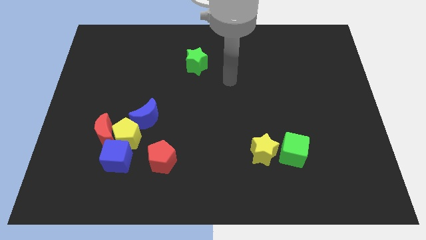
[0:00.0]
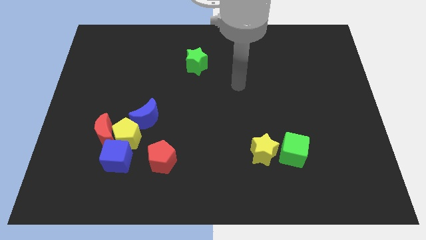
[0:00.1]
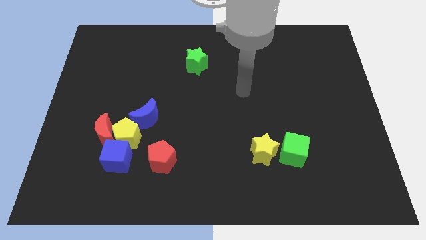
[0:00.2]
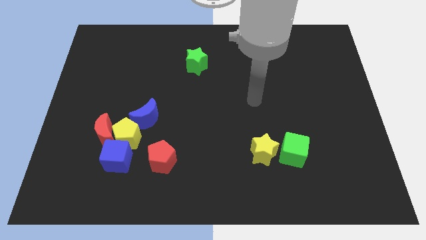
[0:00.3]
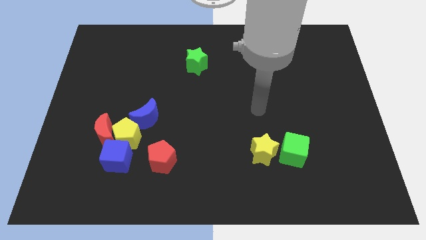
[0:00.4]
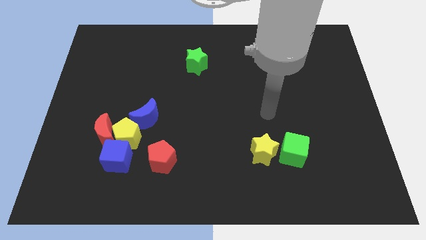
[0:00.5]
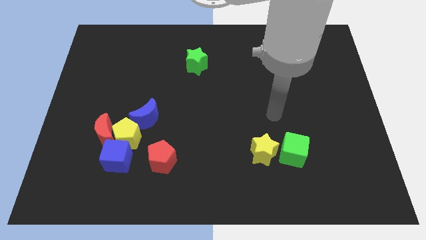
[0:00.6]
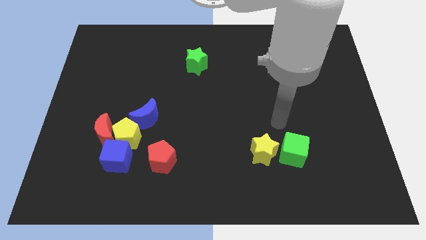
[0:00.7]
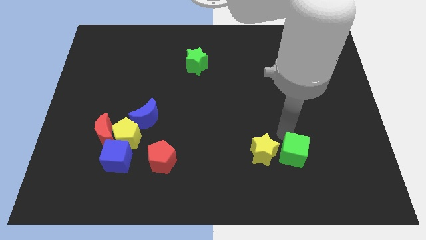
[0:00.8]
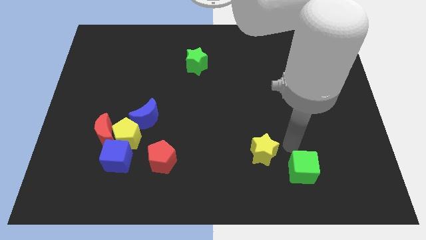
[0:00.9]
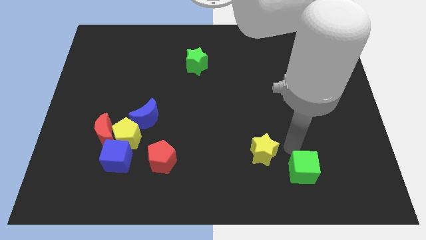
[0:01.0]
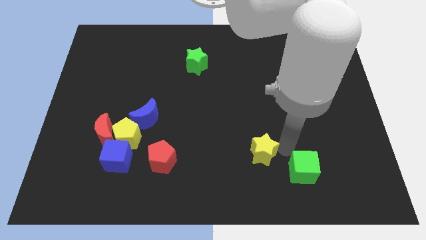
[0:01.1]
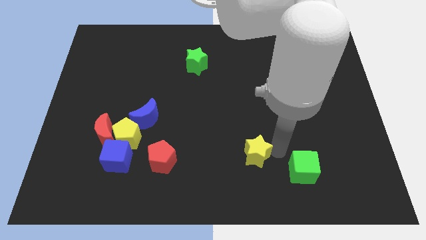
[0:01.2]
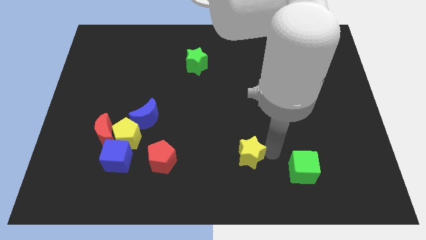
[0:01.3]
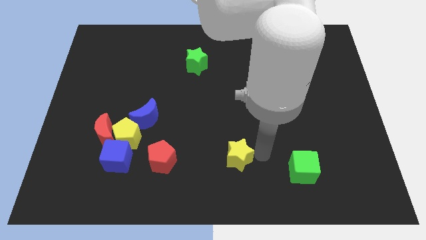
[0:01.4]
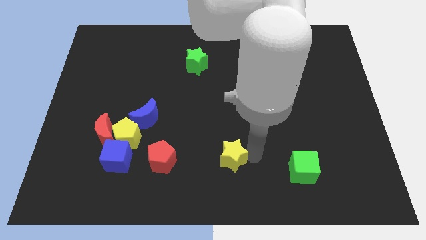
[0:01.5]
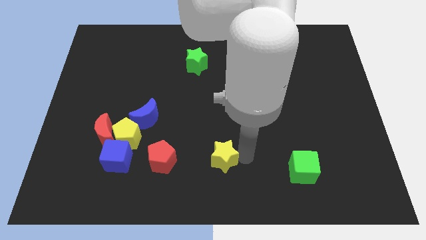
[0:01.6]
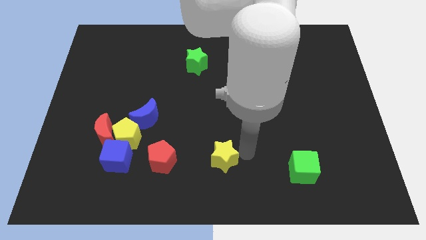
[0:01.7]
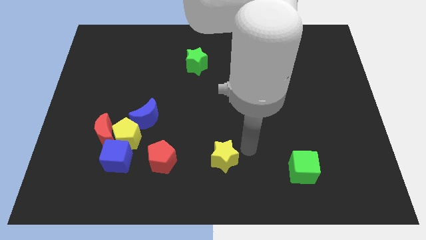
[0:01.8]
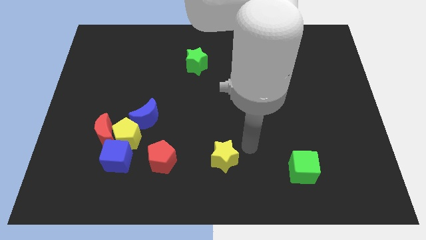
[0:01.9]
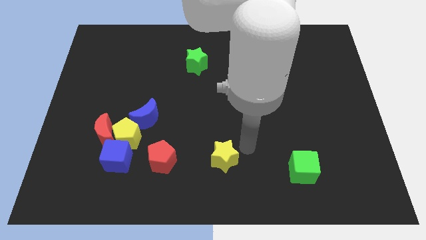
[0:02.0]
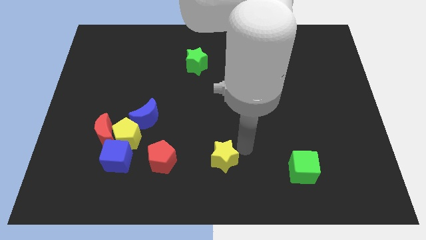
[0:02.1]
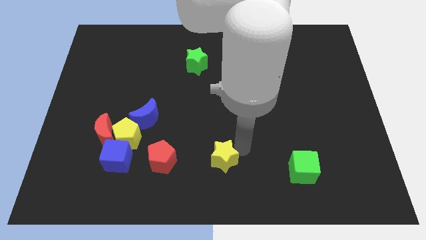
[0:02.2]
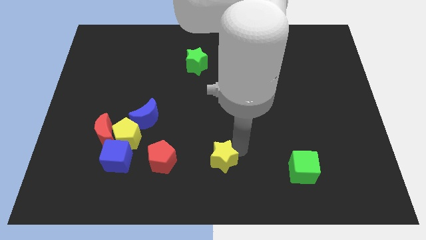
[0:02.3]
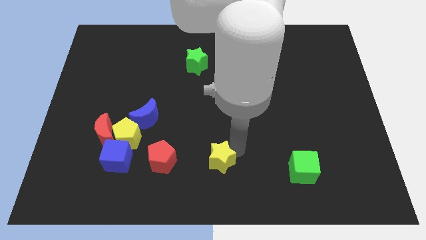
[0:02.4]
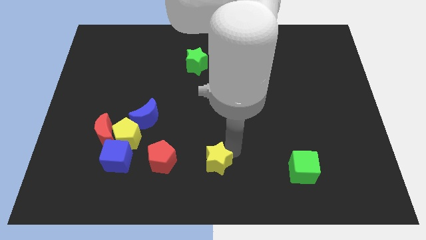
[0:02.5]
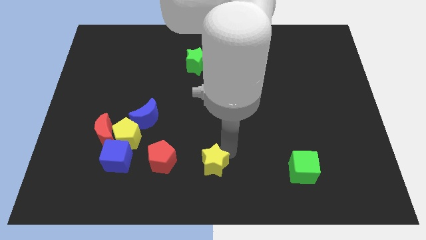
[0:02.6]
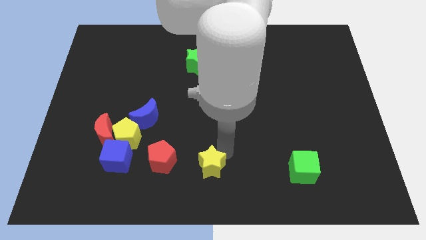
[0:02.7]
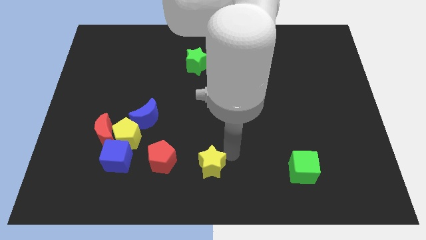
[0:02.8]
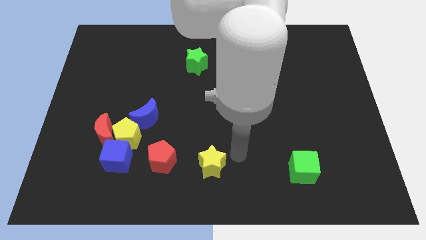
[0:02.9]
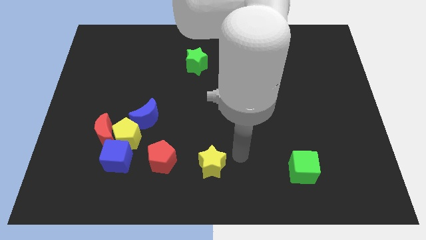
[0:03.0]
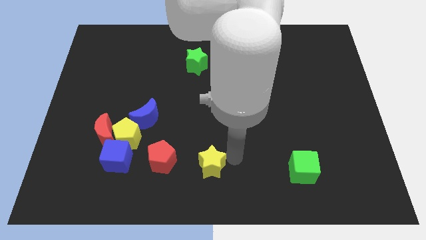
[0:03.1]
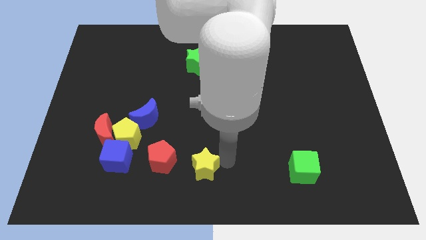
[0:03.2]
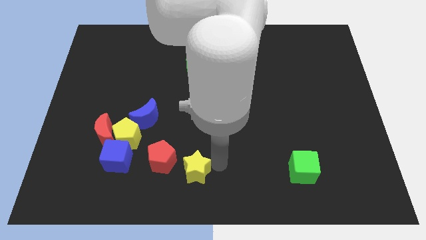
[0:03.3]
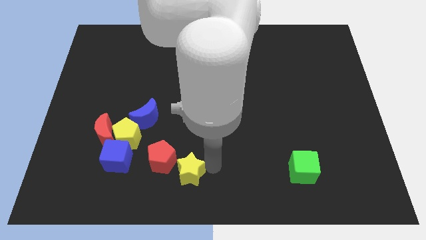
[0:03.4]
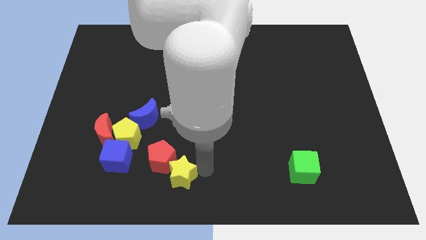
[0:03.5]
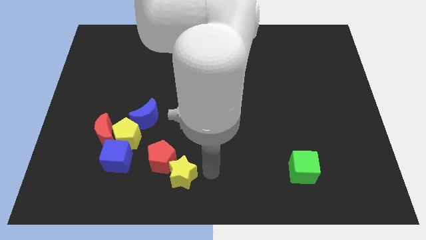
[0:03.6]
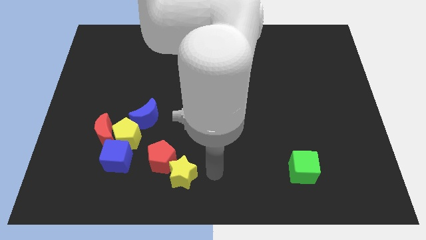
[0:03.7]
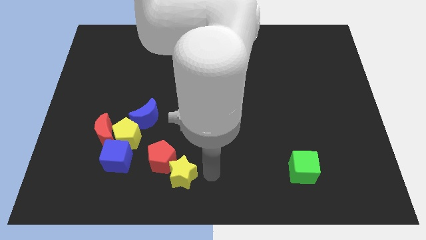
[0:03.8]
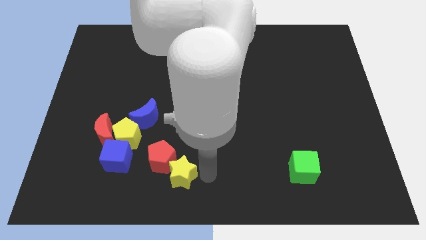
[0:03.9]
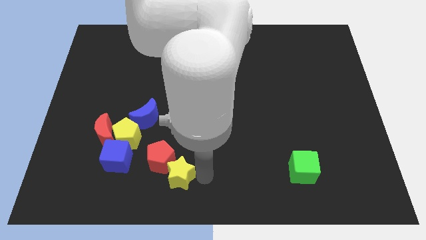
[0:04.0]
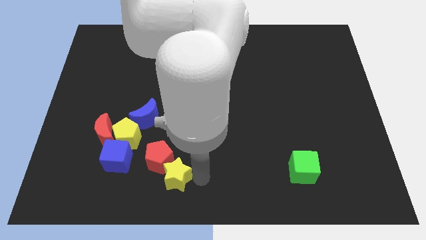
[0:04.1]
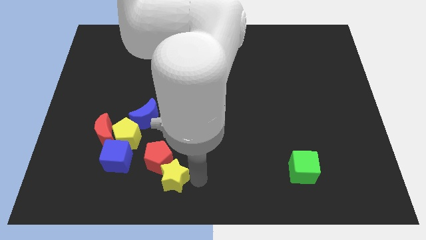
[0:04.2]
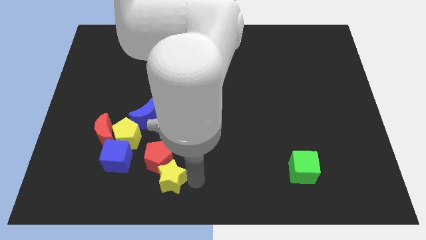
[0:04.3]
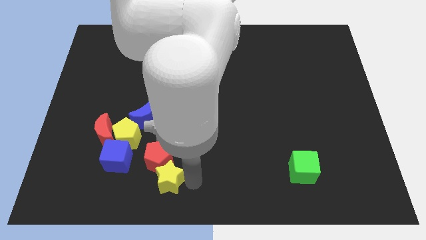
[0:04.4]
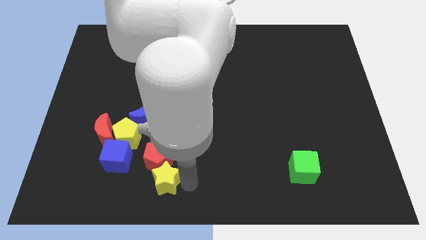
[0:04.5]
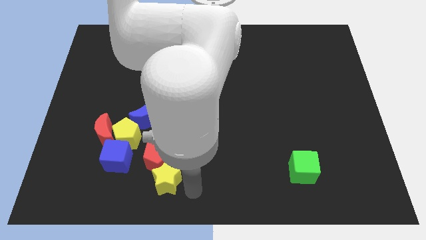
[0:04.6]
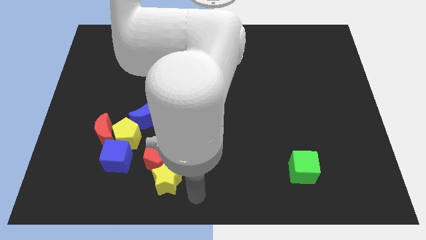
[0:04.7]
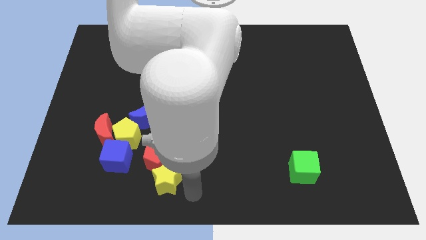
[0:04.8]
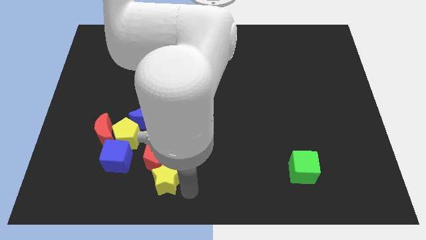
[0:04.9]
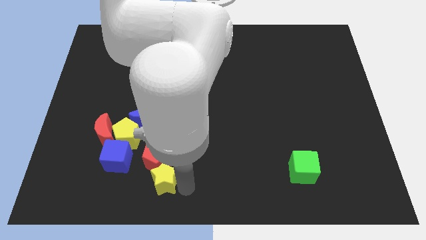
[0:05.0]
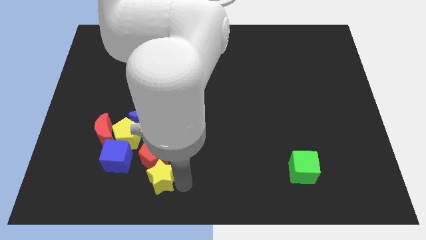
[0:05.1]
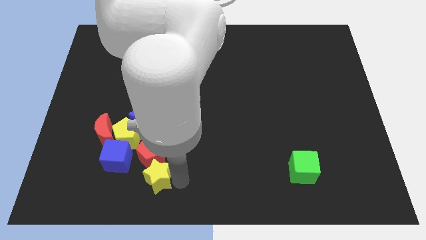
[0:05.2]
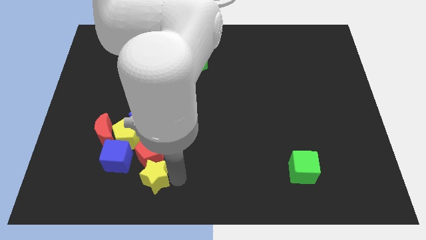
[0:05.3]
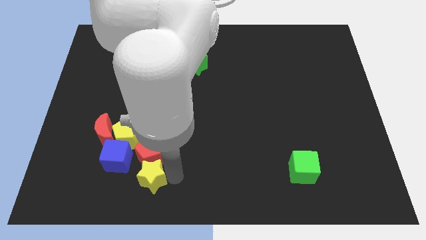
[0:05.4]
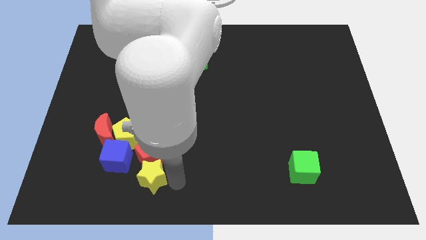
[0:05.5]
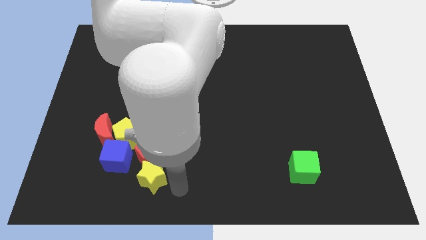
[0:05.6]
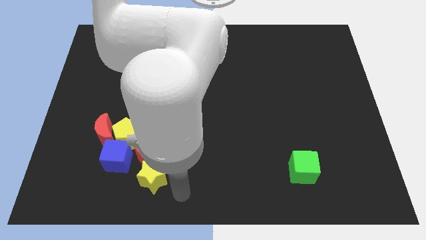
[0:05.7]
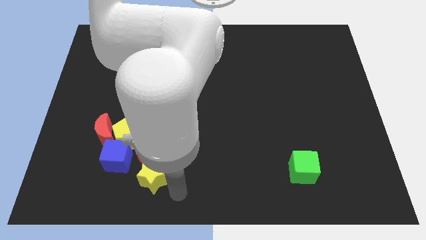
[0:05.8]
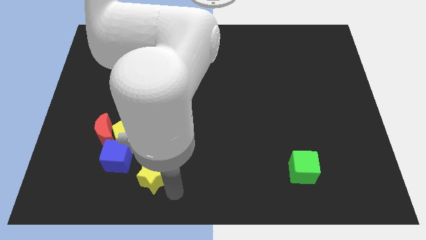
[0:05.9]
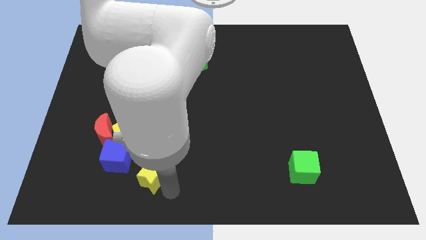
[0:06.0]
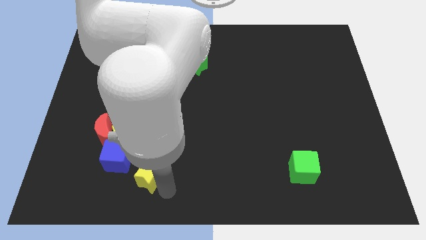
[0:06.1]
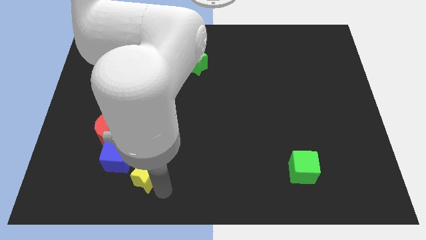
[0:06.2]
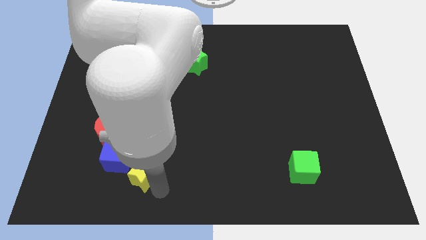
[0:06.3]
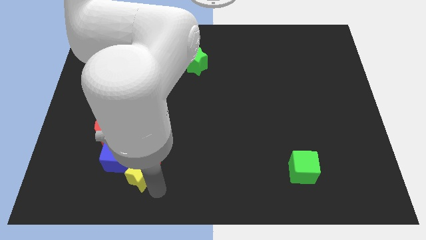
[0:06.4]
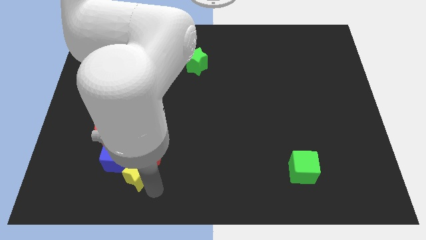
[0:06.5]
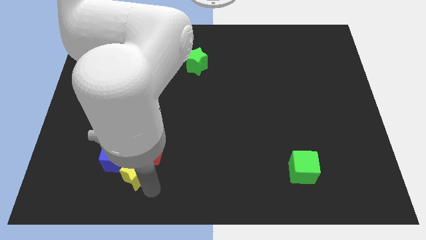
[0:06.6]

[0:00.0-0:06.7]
push the yellow star towards the blue cube

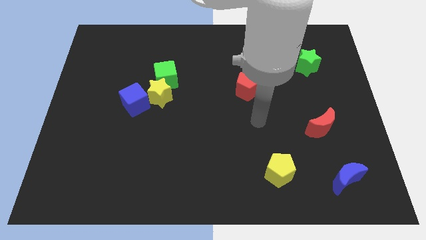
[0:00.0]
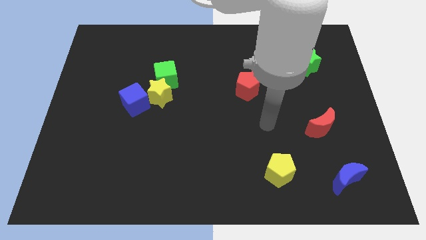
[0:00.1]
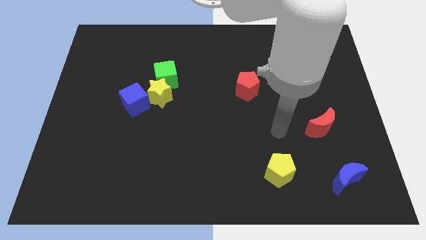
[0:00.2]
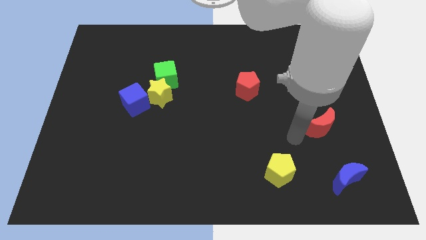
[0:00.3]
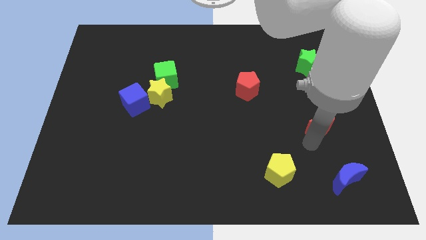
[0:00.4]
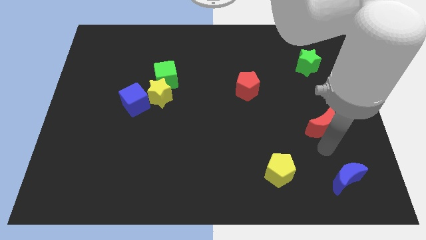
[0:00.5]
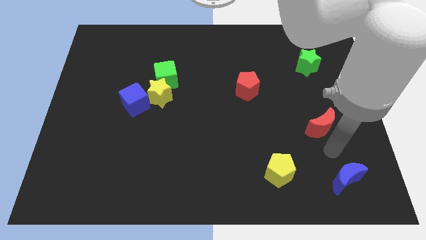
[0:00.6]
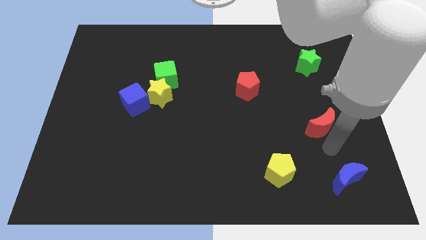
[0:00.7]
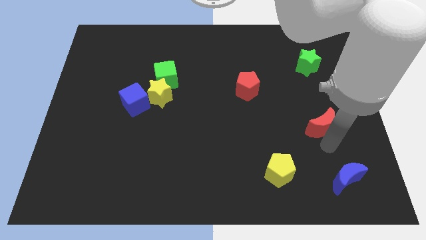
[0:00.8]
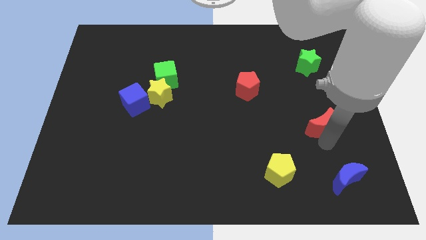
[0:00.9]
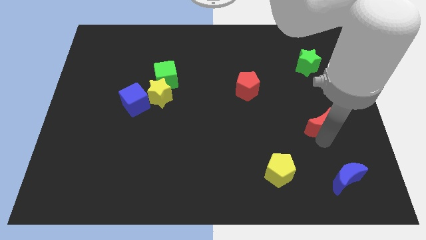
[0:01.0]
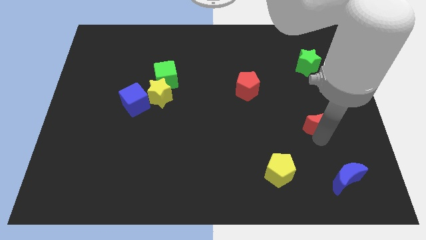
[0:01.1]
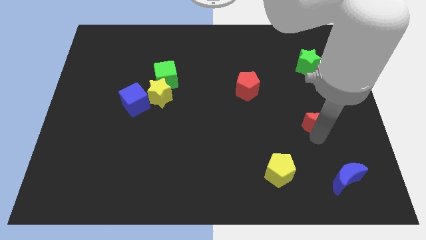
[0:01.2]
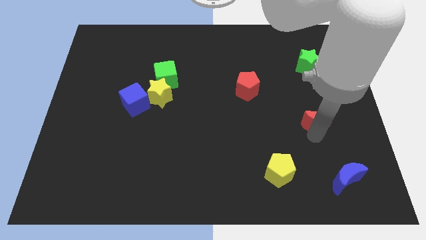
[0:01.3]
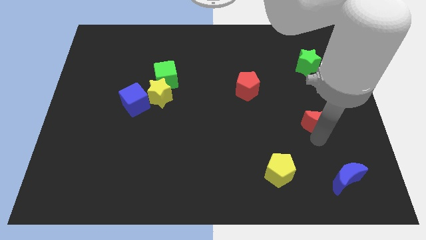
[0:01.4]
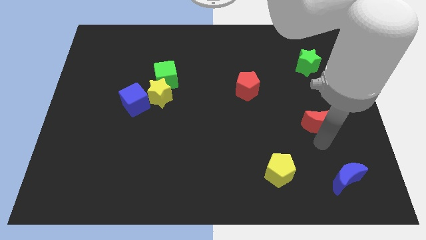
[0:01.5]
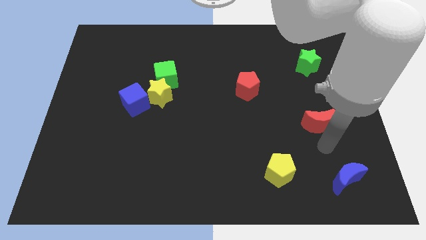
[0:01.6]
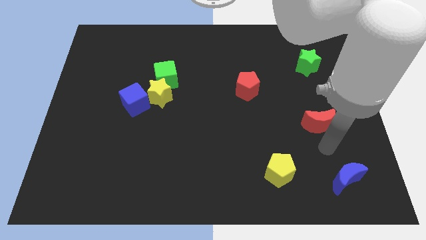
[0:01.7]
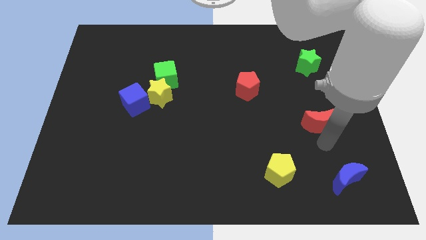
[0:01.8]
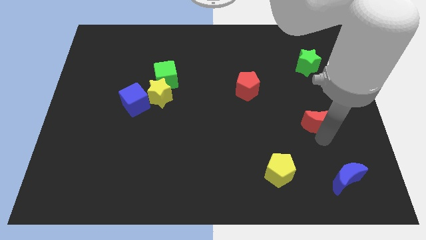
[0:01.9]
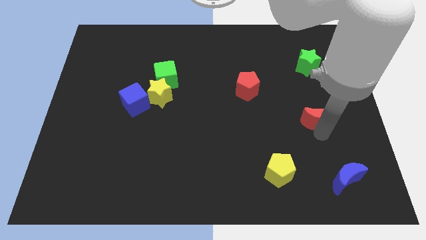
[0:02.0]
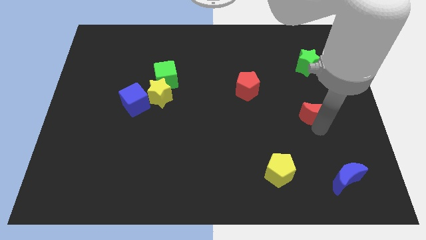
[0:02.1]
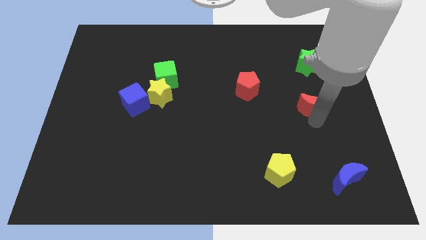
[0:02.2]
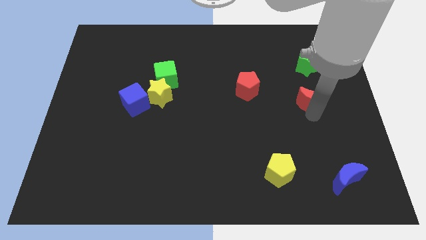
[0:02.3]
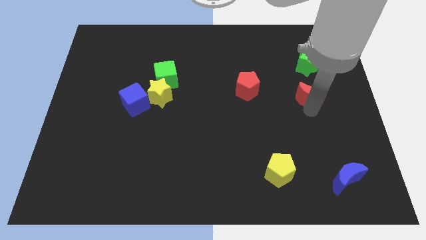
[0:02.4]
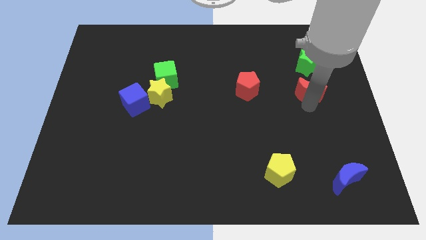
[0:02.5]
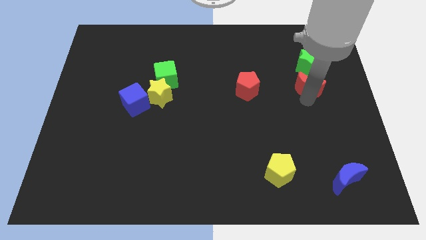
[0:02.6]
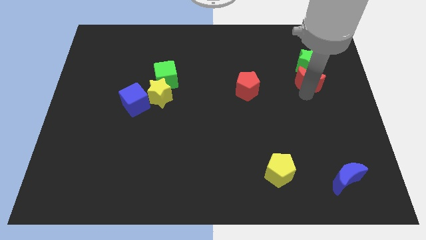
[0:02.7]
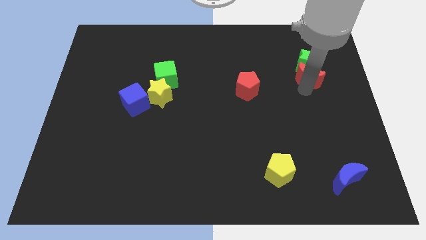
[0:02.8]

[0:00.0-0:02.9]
slide the red moon close to the green star
